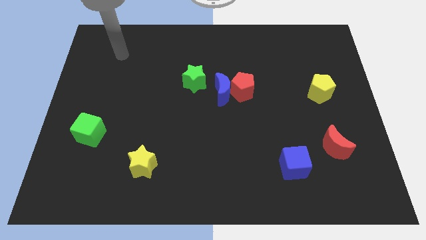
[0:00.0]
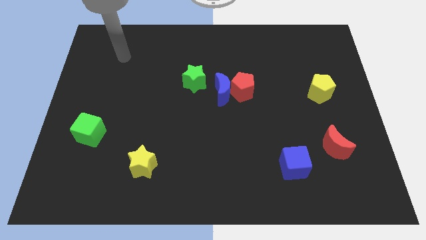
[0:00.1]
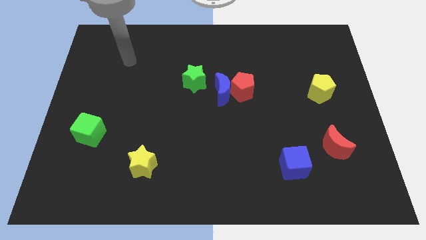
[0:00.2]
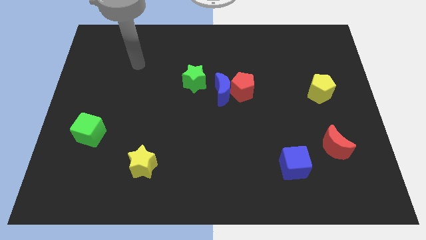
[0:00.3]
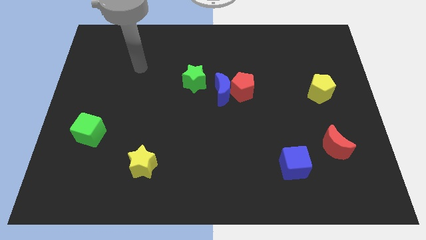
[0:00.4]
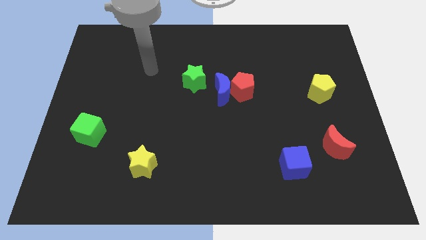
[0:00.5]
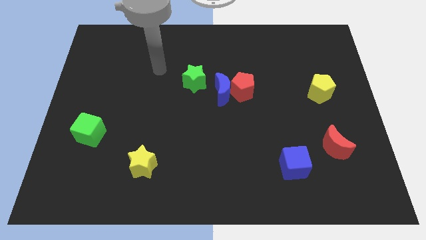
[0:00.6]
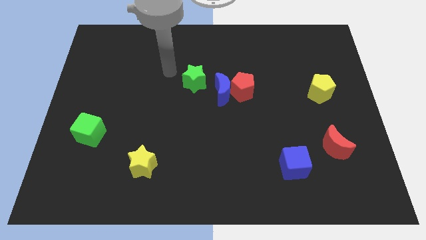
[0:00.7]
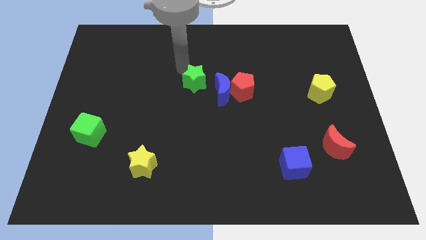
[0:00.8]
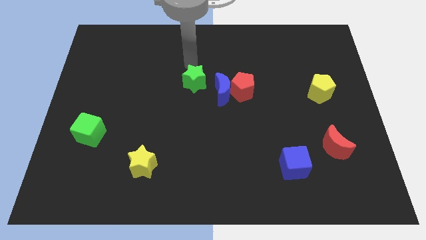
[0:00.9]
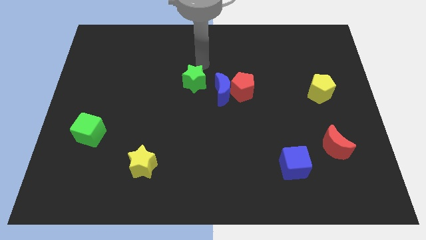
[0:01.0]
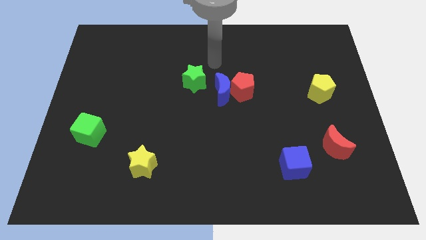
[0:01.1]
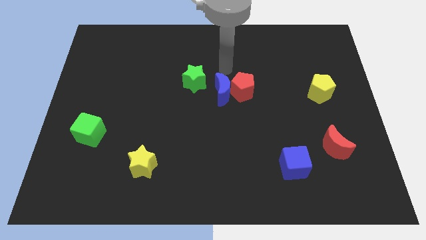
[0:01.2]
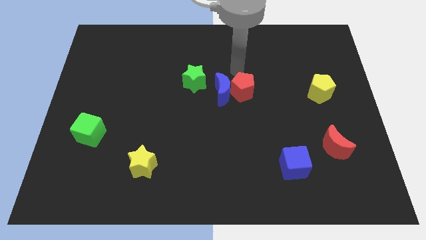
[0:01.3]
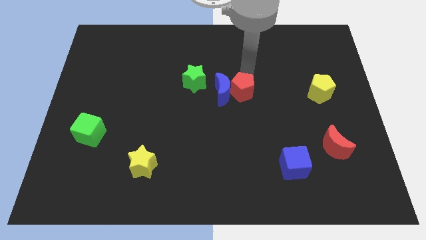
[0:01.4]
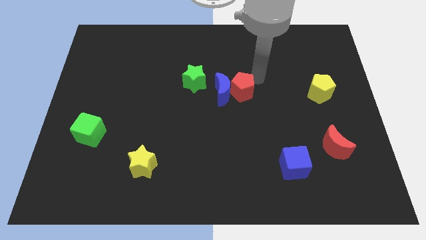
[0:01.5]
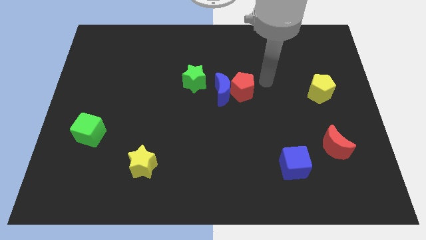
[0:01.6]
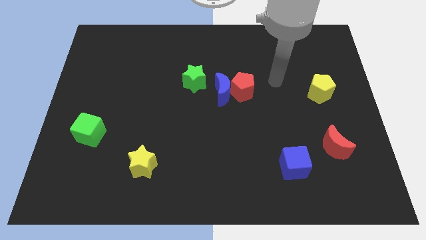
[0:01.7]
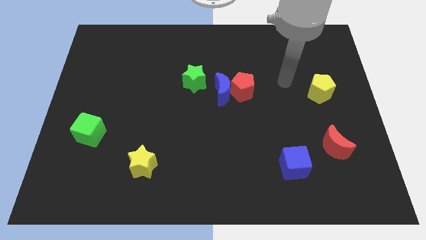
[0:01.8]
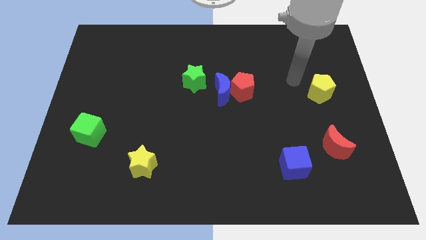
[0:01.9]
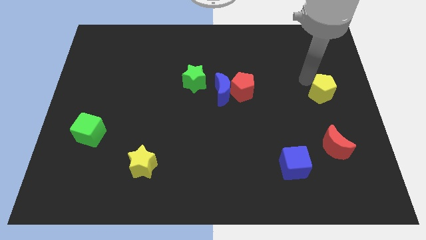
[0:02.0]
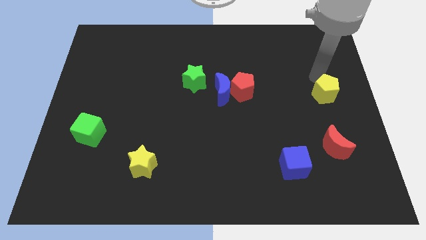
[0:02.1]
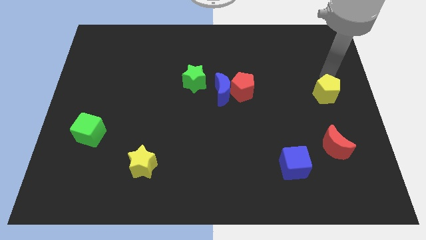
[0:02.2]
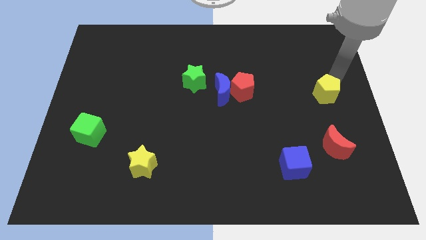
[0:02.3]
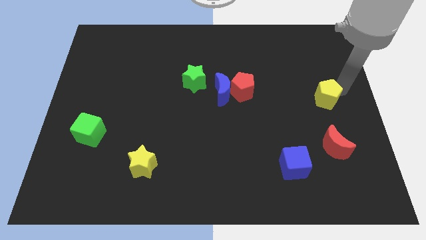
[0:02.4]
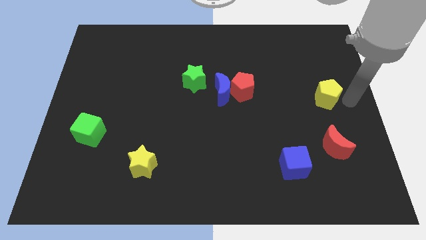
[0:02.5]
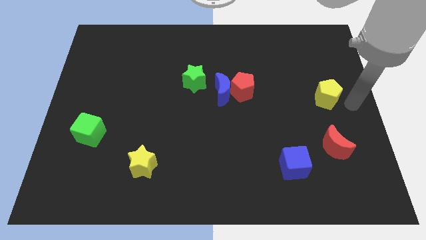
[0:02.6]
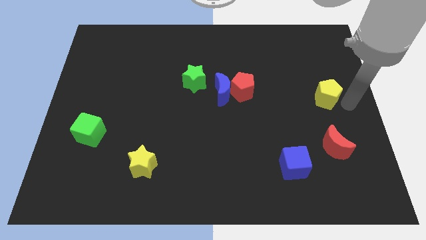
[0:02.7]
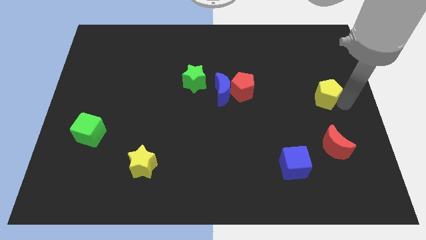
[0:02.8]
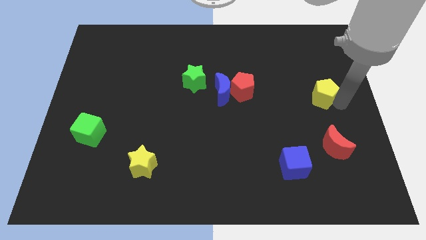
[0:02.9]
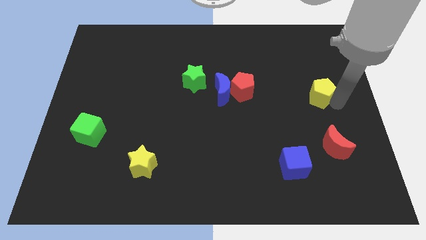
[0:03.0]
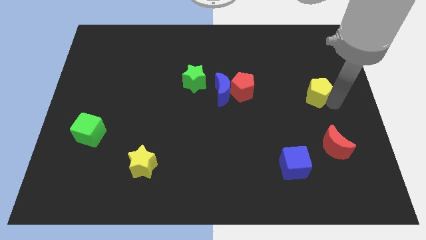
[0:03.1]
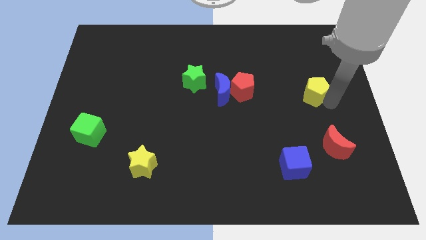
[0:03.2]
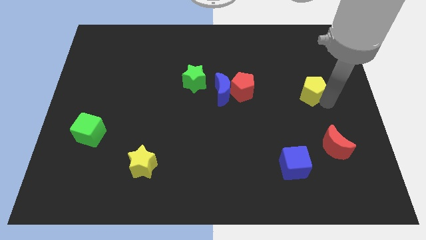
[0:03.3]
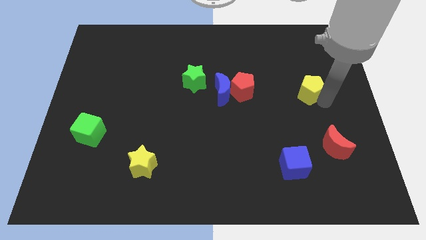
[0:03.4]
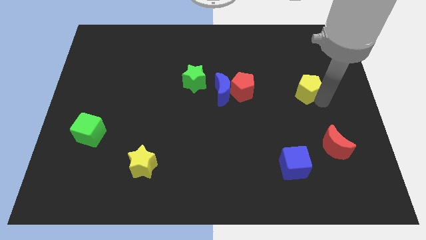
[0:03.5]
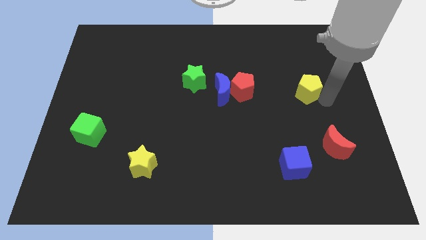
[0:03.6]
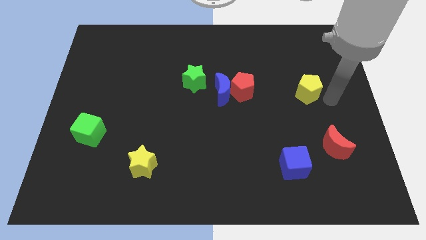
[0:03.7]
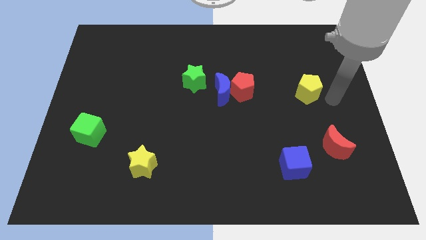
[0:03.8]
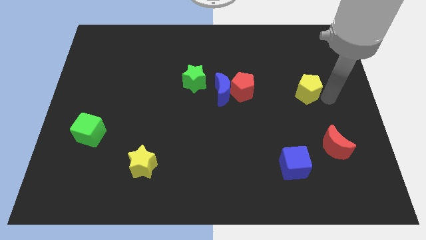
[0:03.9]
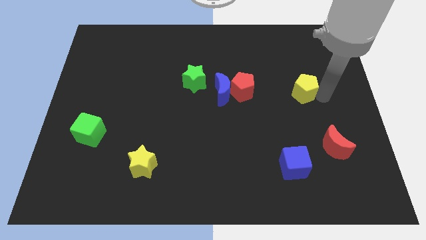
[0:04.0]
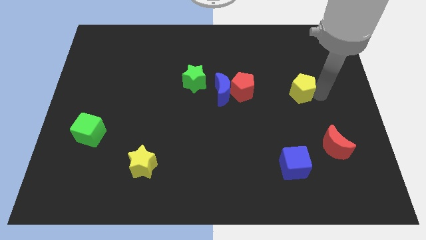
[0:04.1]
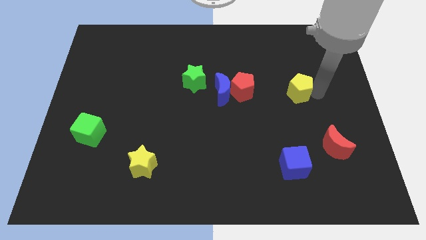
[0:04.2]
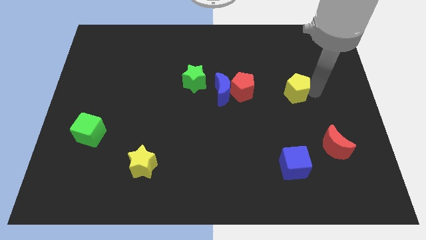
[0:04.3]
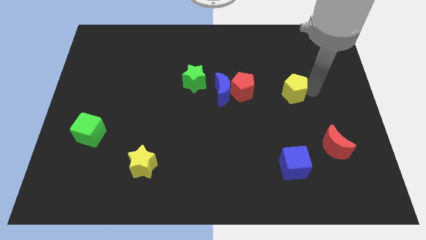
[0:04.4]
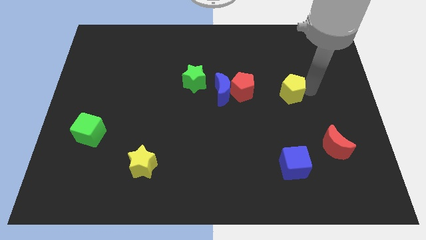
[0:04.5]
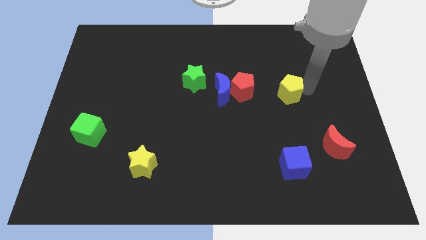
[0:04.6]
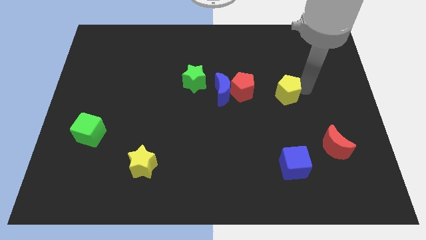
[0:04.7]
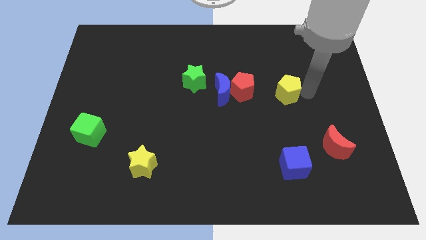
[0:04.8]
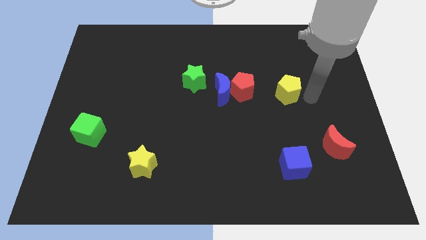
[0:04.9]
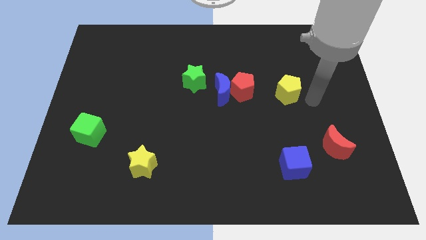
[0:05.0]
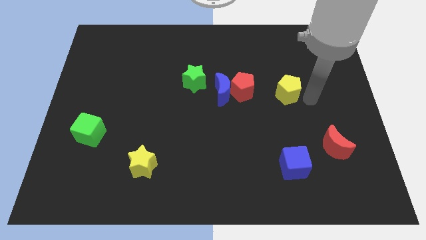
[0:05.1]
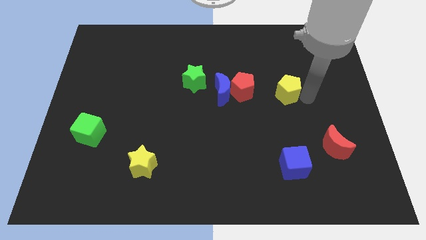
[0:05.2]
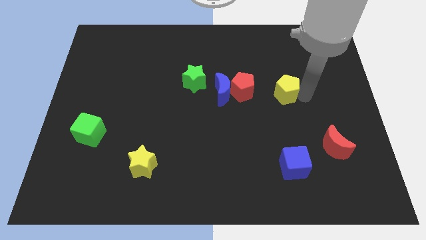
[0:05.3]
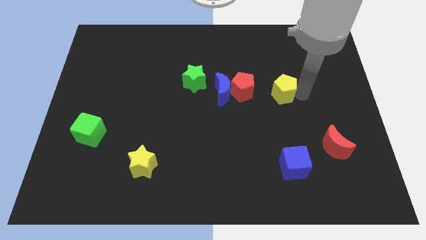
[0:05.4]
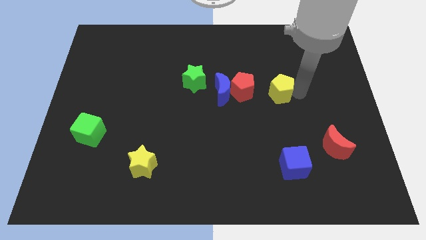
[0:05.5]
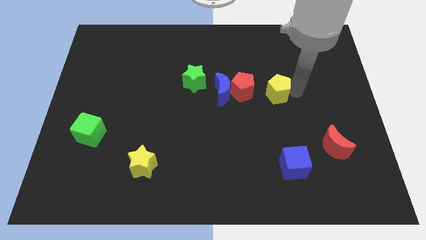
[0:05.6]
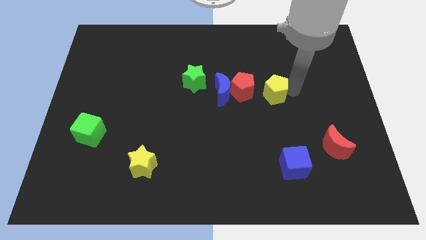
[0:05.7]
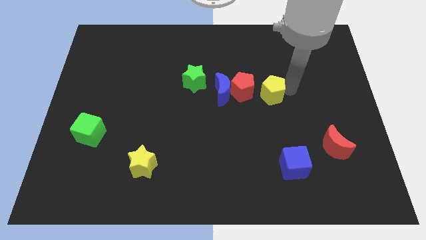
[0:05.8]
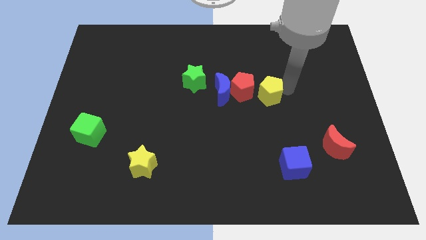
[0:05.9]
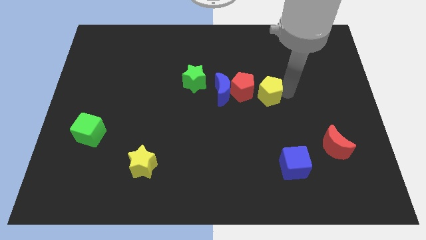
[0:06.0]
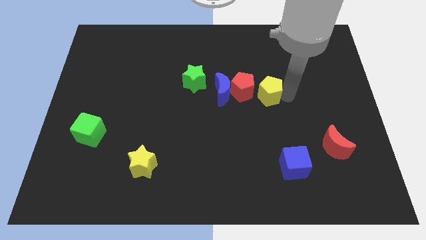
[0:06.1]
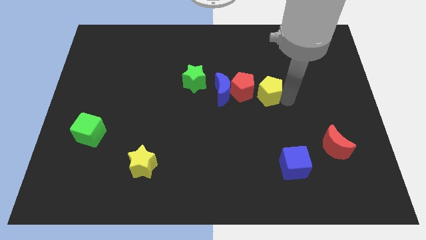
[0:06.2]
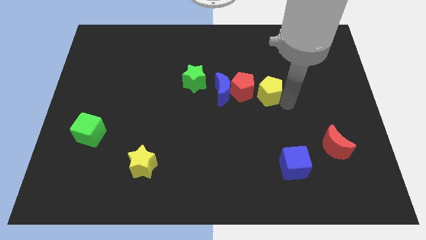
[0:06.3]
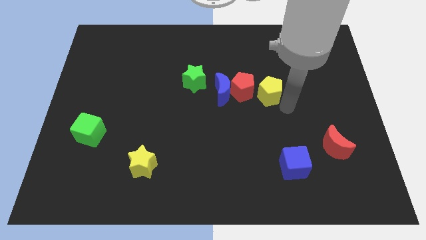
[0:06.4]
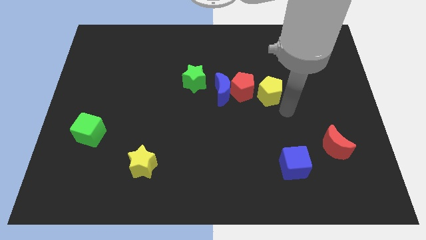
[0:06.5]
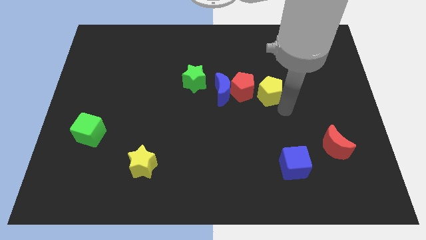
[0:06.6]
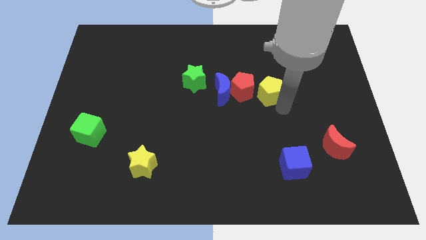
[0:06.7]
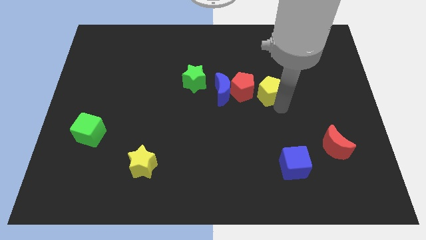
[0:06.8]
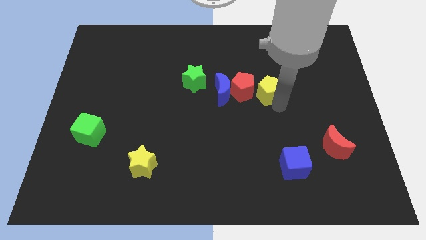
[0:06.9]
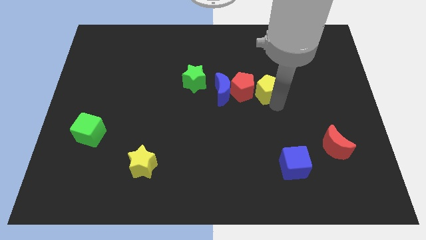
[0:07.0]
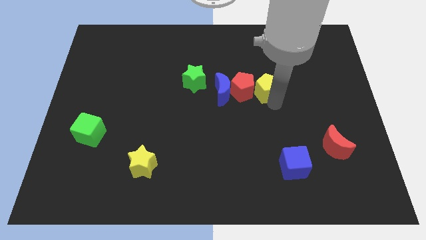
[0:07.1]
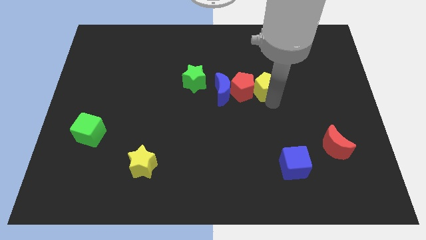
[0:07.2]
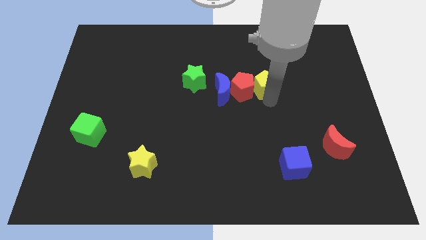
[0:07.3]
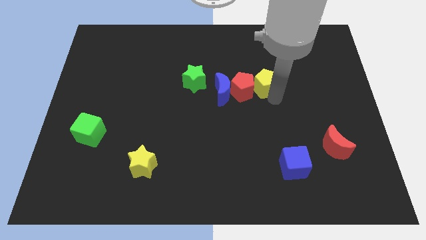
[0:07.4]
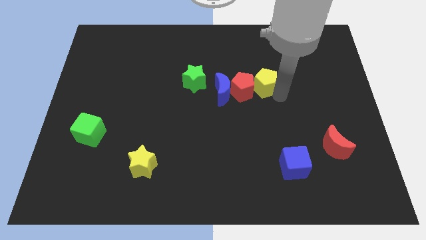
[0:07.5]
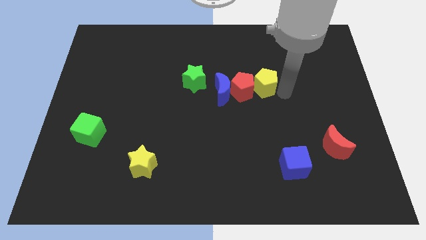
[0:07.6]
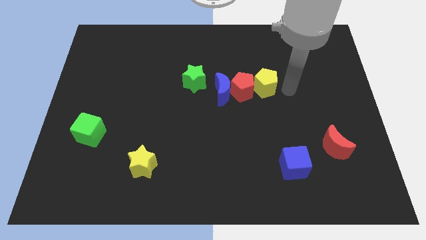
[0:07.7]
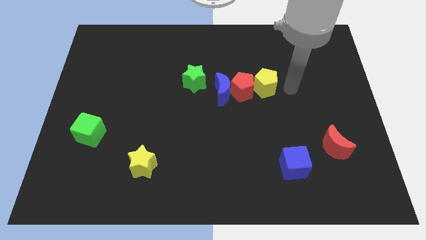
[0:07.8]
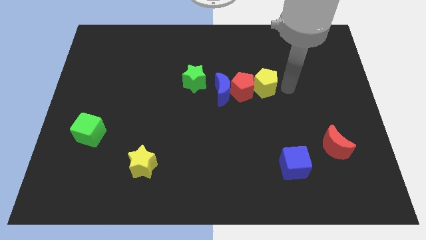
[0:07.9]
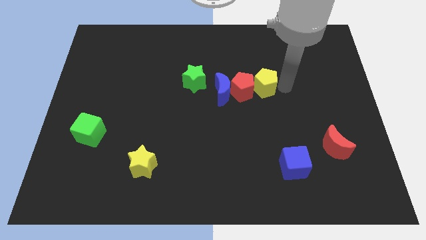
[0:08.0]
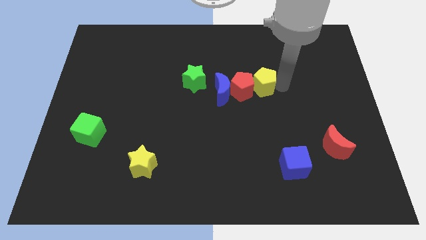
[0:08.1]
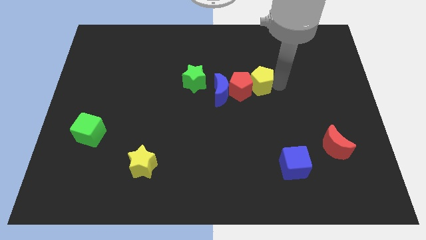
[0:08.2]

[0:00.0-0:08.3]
push the yellow pentagon to the right side of the green star
